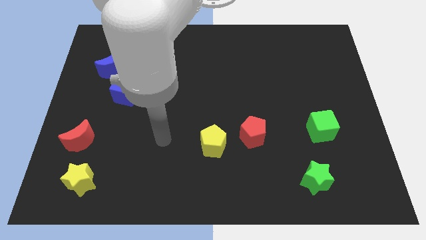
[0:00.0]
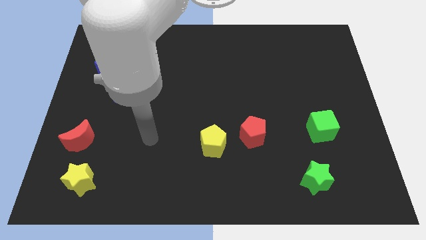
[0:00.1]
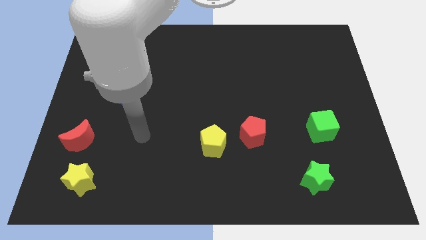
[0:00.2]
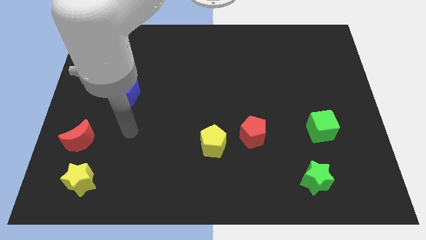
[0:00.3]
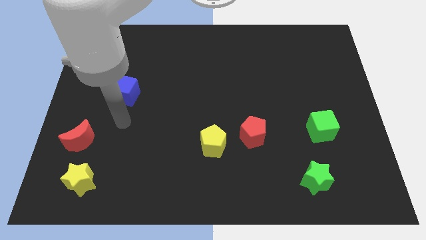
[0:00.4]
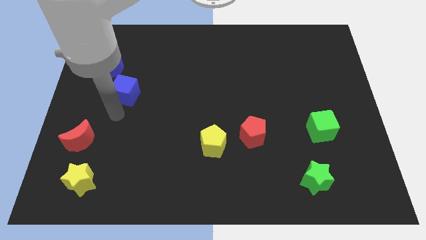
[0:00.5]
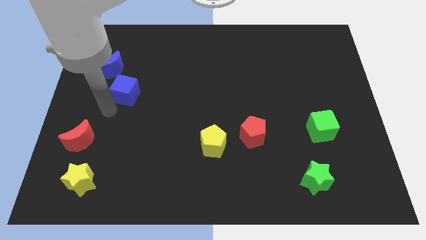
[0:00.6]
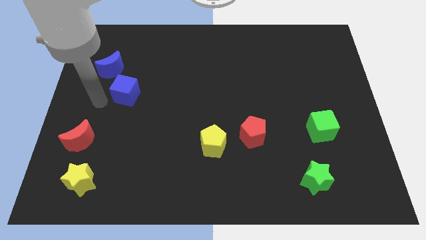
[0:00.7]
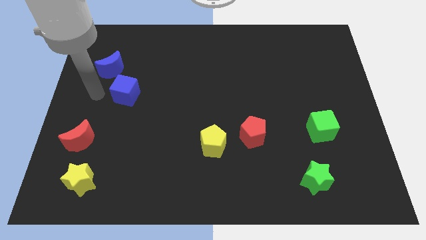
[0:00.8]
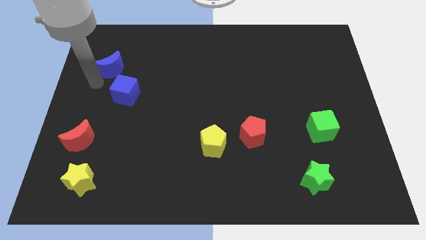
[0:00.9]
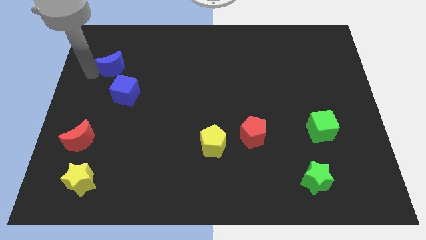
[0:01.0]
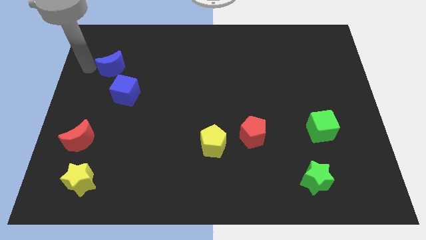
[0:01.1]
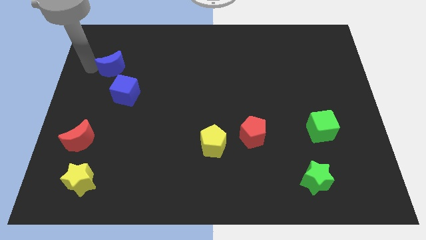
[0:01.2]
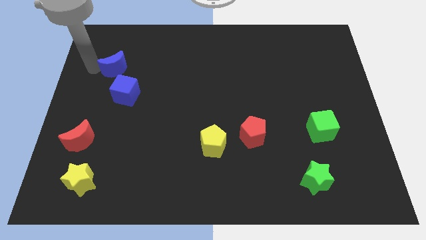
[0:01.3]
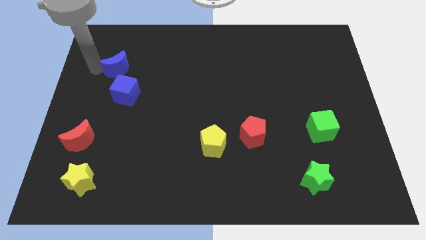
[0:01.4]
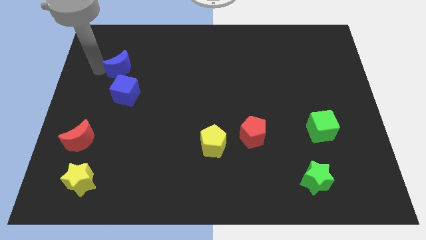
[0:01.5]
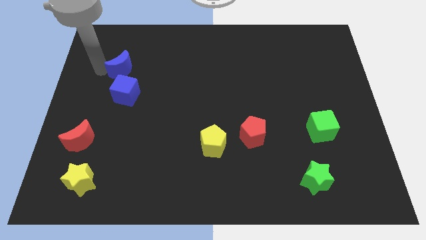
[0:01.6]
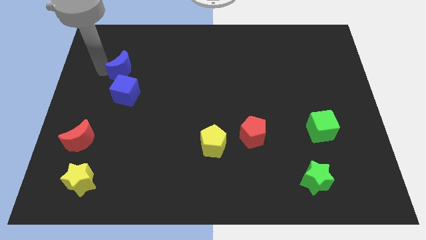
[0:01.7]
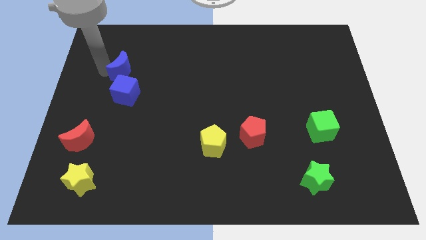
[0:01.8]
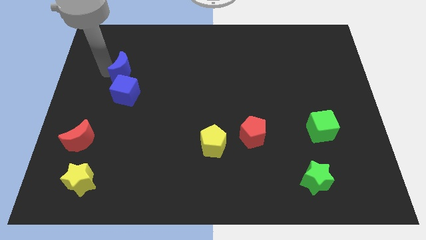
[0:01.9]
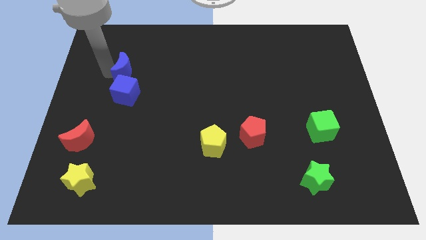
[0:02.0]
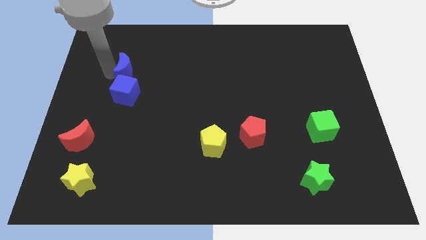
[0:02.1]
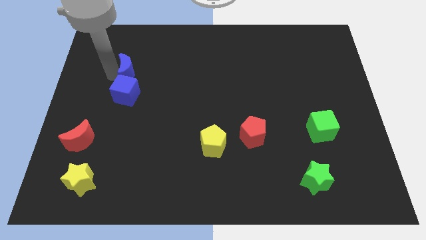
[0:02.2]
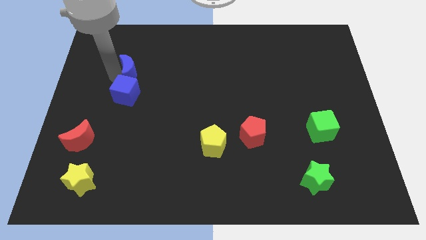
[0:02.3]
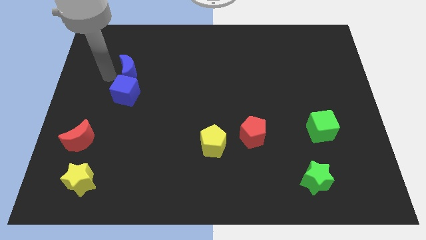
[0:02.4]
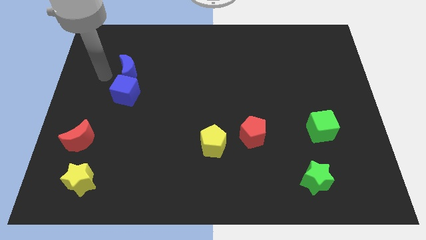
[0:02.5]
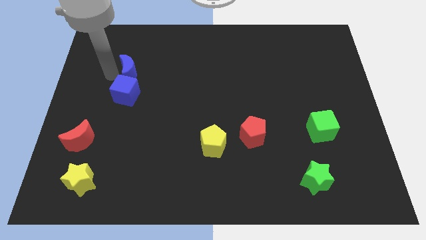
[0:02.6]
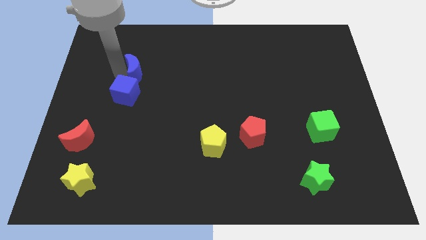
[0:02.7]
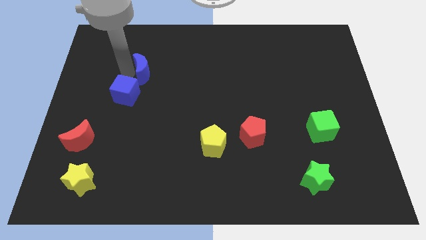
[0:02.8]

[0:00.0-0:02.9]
slightly push the blue moon to the right

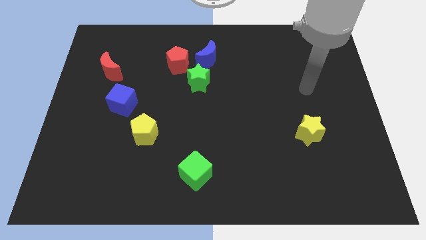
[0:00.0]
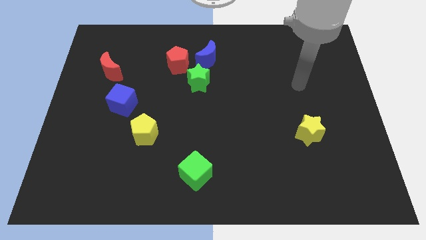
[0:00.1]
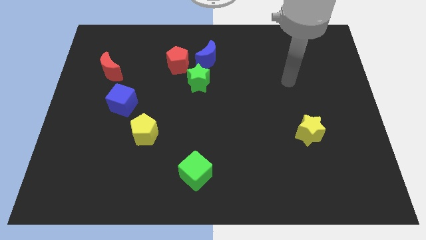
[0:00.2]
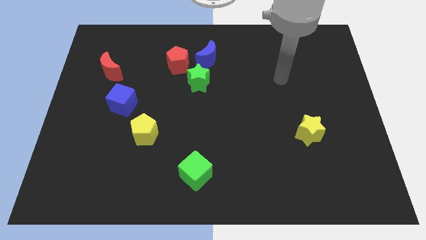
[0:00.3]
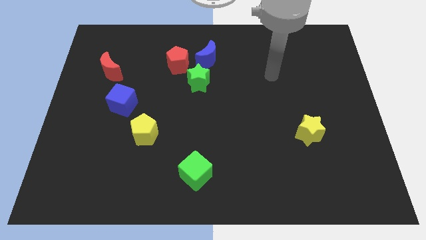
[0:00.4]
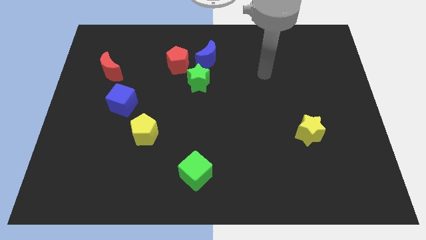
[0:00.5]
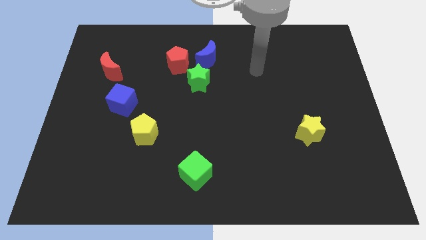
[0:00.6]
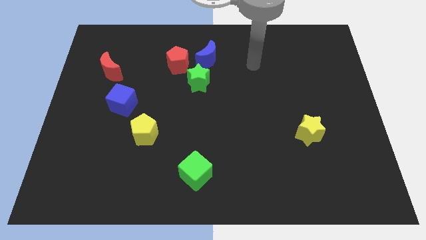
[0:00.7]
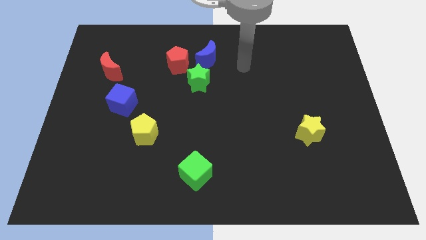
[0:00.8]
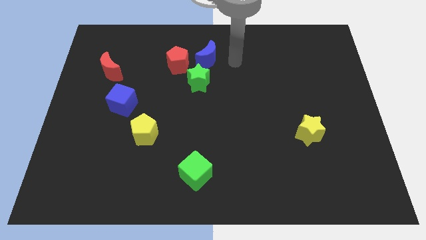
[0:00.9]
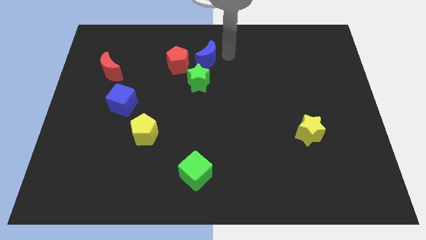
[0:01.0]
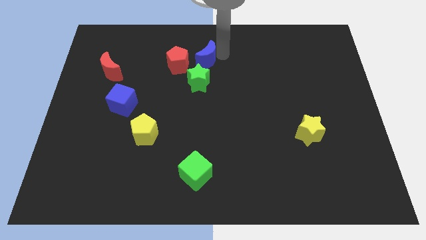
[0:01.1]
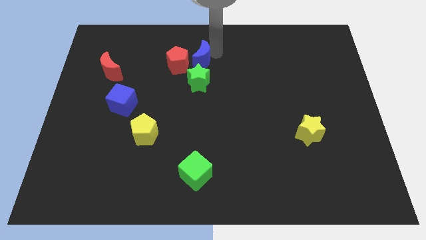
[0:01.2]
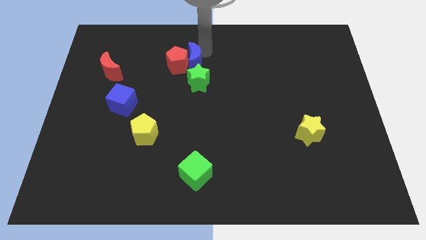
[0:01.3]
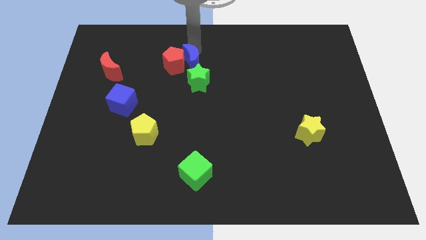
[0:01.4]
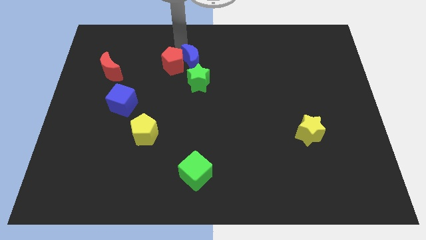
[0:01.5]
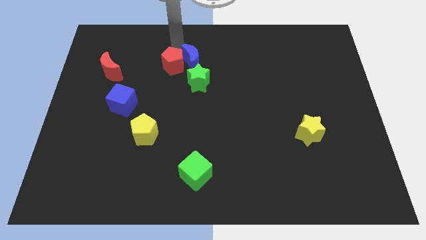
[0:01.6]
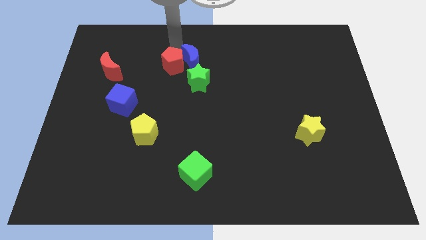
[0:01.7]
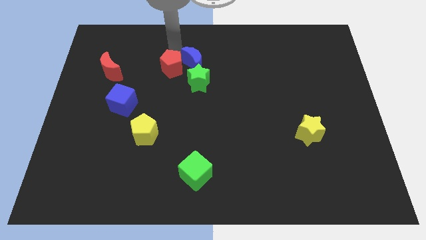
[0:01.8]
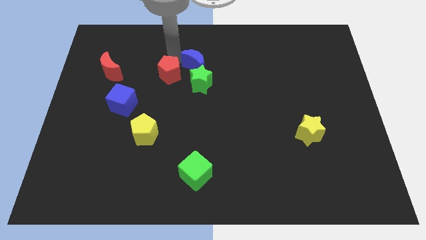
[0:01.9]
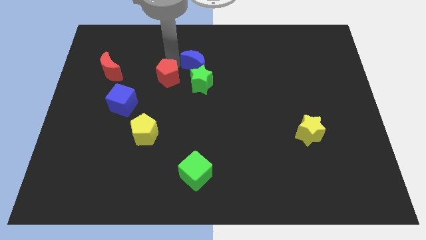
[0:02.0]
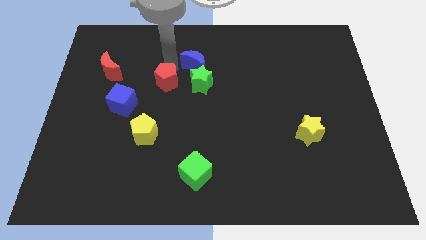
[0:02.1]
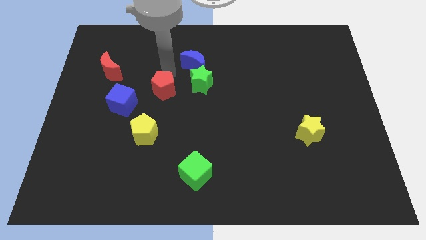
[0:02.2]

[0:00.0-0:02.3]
slightly slide the red pentagon down

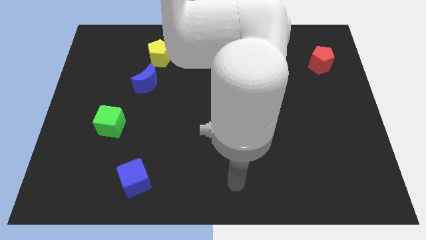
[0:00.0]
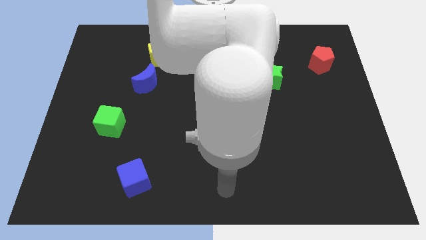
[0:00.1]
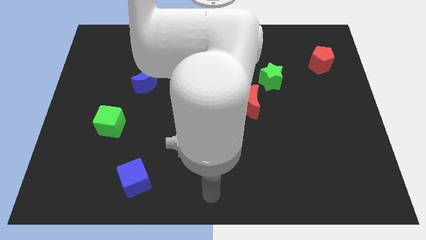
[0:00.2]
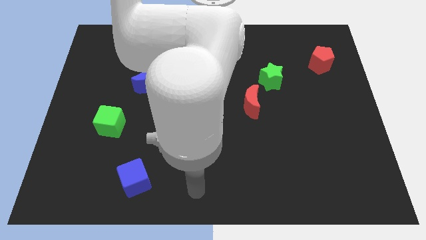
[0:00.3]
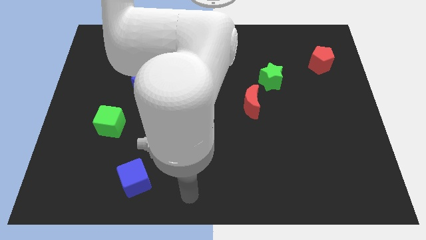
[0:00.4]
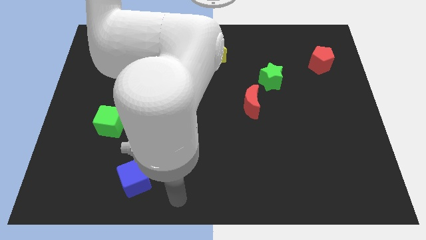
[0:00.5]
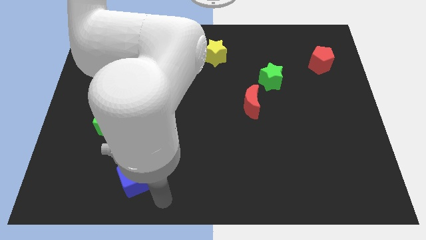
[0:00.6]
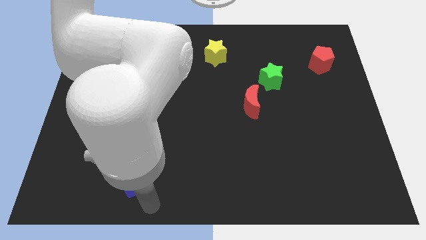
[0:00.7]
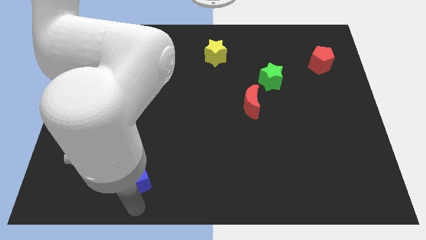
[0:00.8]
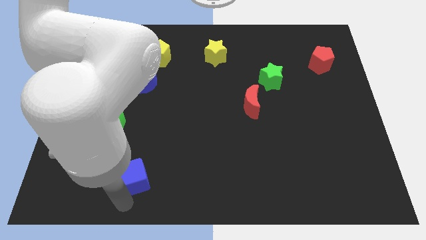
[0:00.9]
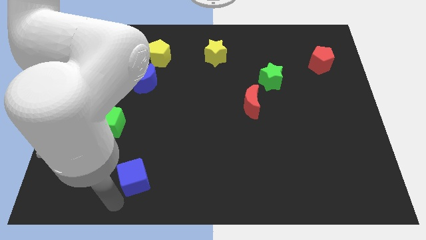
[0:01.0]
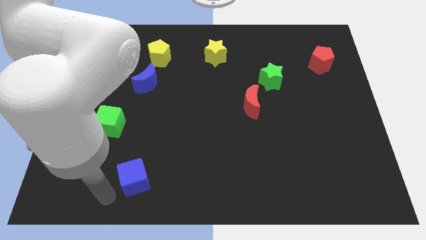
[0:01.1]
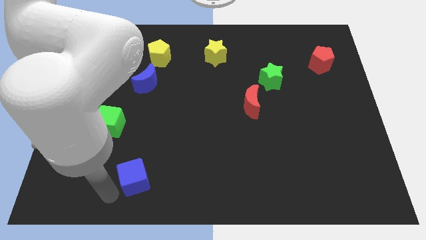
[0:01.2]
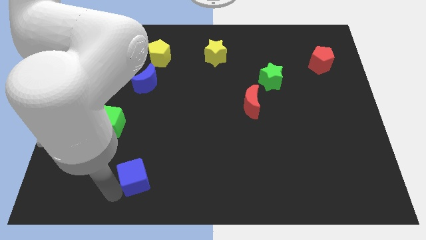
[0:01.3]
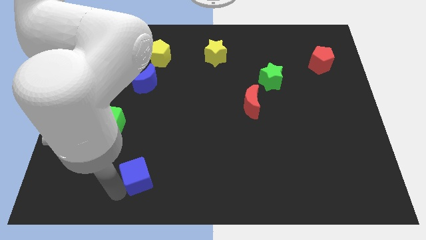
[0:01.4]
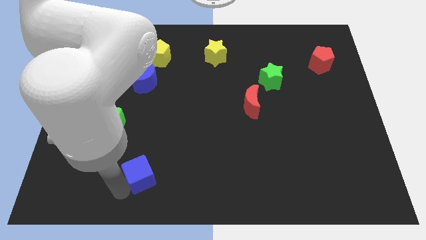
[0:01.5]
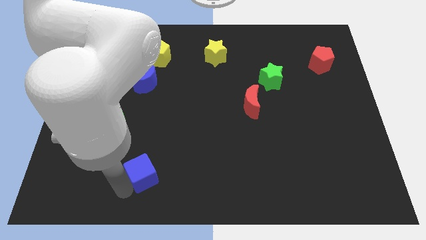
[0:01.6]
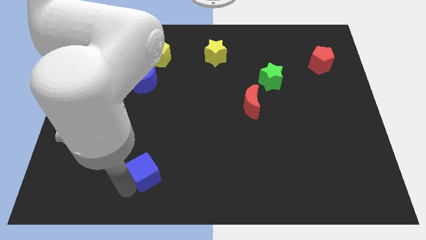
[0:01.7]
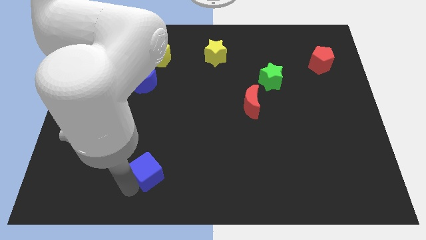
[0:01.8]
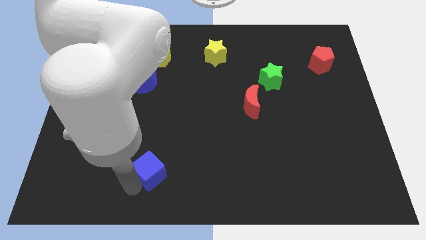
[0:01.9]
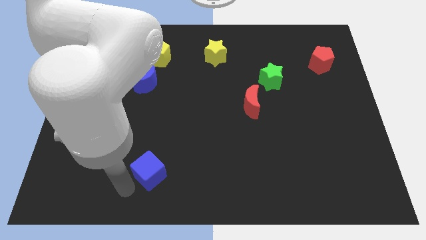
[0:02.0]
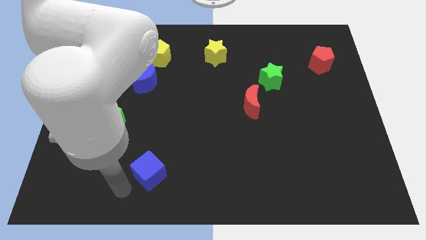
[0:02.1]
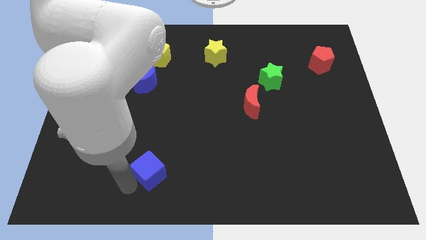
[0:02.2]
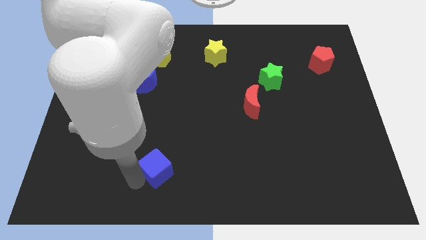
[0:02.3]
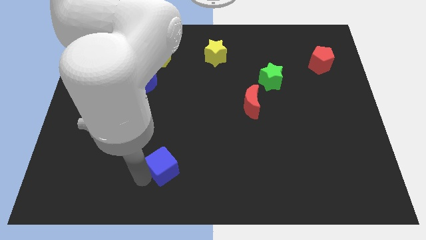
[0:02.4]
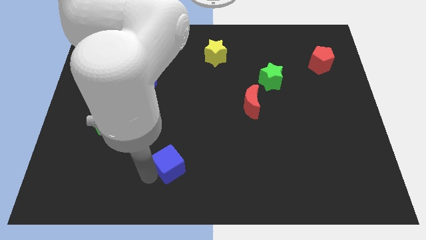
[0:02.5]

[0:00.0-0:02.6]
slide the blue cube up and then right a little
